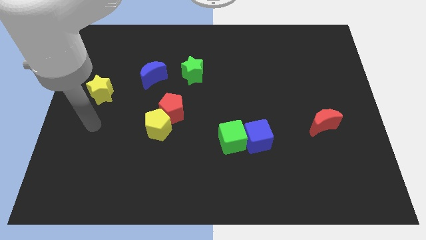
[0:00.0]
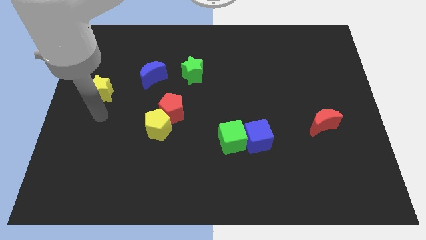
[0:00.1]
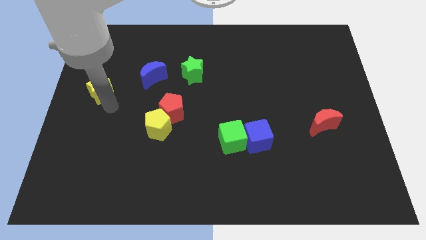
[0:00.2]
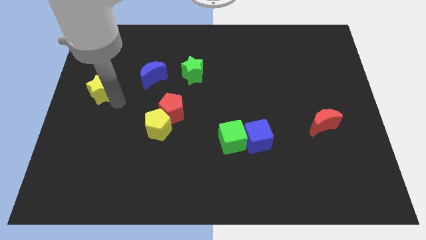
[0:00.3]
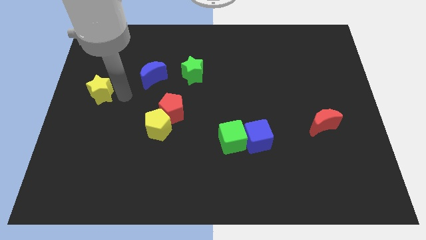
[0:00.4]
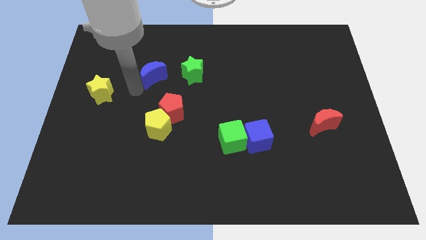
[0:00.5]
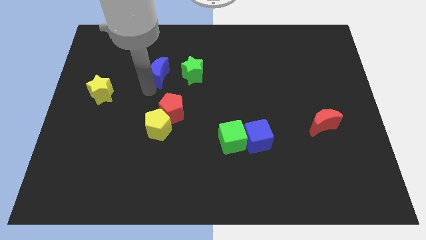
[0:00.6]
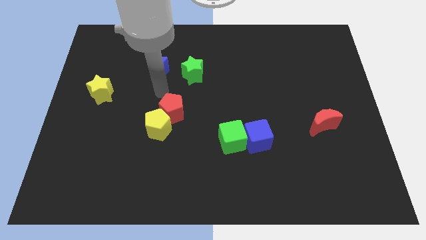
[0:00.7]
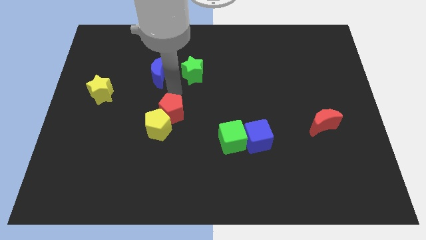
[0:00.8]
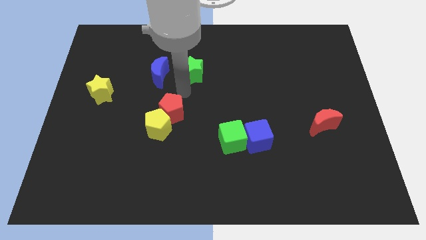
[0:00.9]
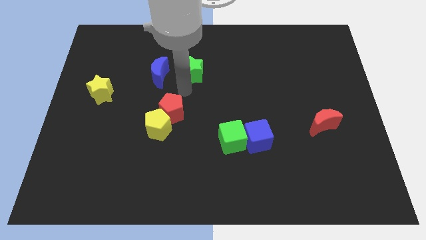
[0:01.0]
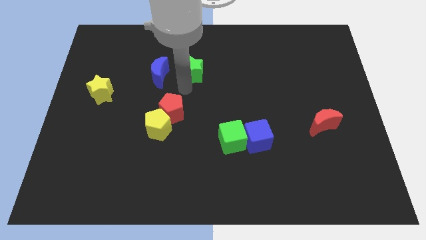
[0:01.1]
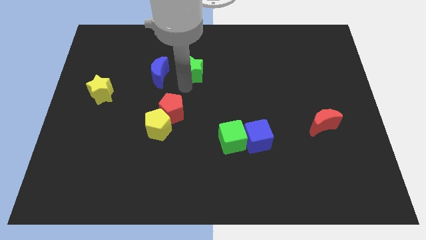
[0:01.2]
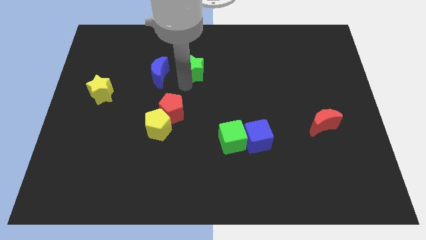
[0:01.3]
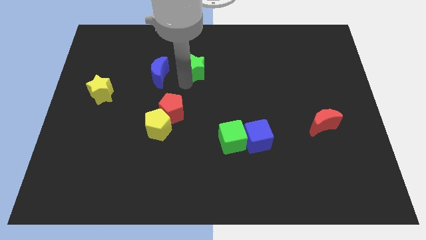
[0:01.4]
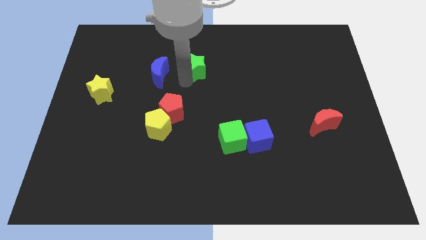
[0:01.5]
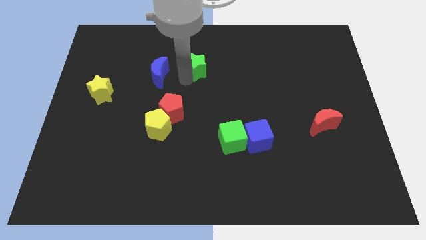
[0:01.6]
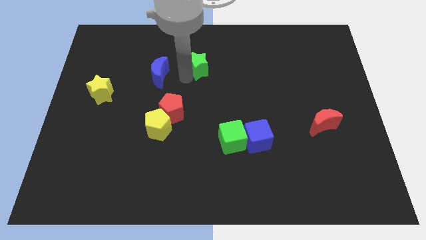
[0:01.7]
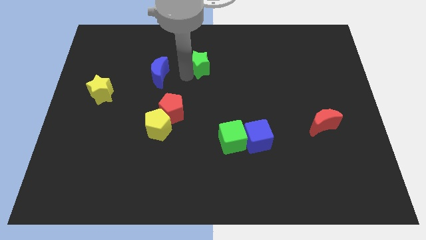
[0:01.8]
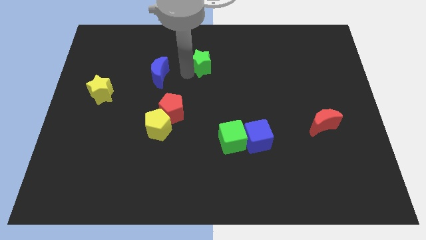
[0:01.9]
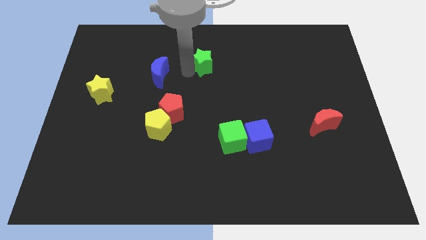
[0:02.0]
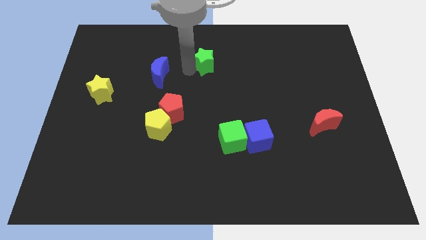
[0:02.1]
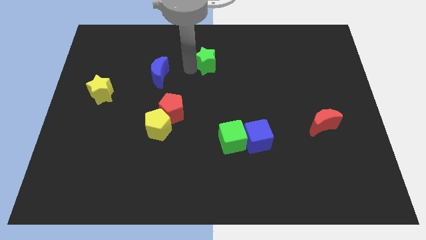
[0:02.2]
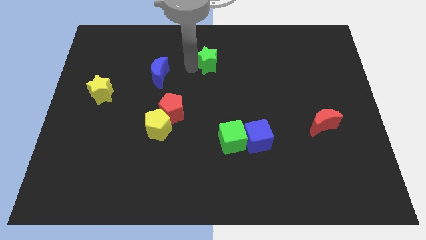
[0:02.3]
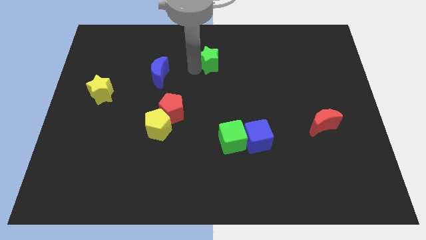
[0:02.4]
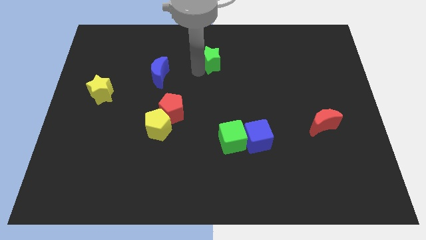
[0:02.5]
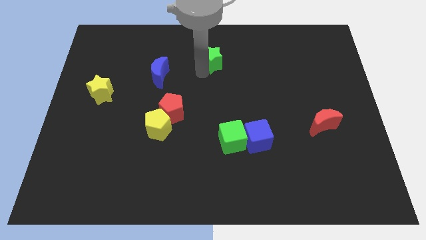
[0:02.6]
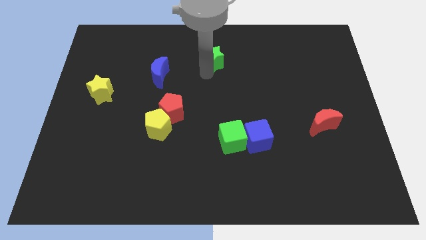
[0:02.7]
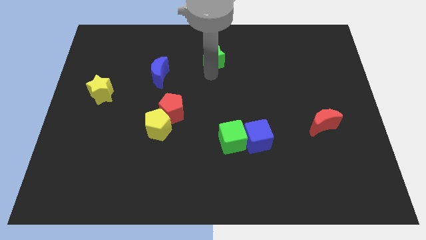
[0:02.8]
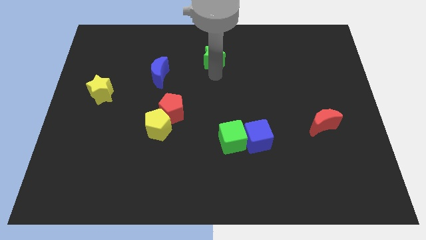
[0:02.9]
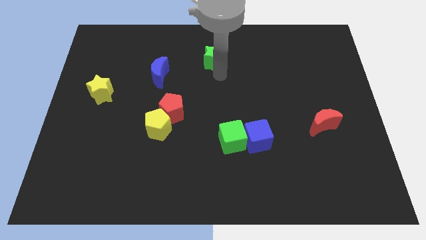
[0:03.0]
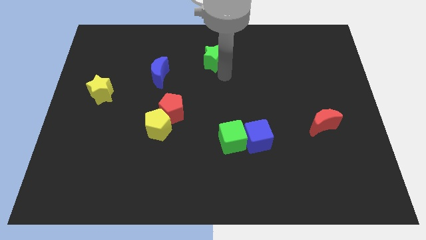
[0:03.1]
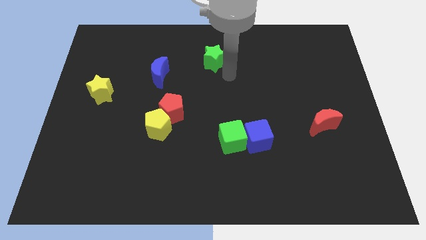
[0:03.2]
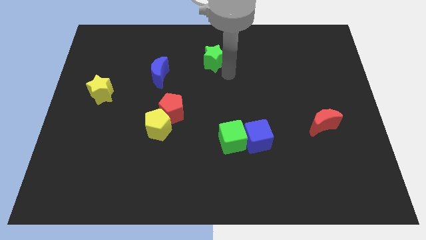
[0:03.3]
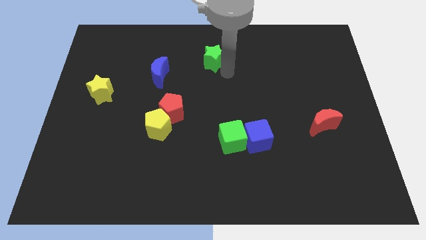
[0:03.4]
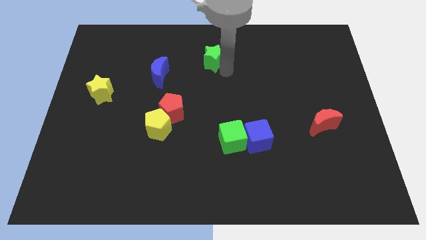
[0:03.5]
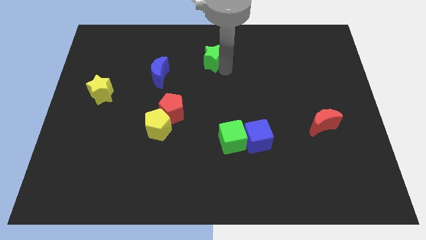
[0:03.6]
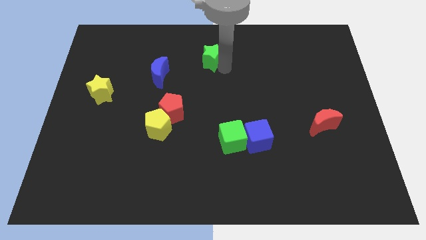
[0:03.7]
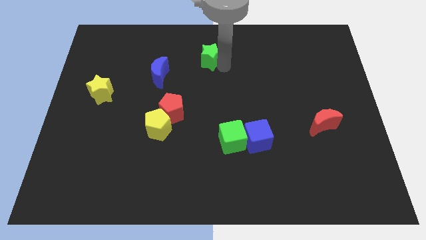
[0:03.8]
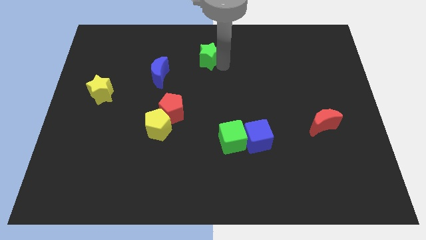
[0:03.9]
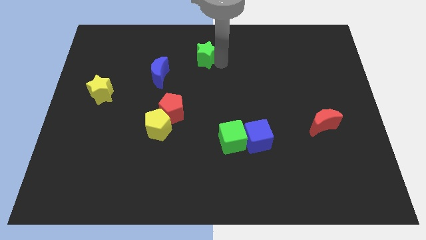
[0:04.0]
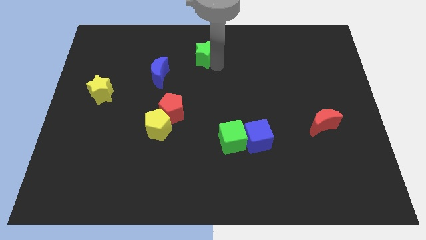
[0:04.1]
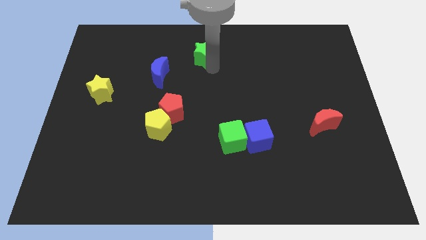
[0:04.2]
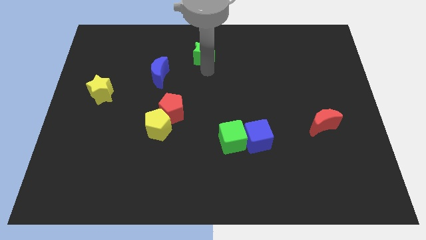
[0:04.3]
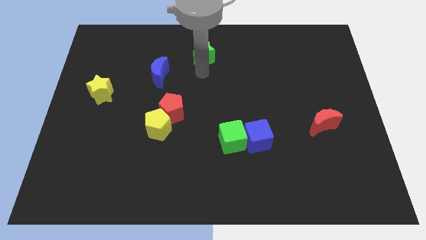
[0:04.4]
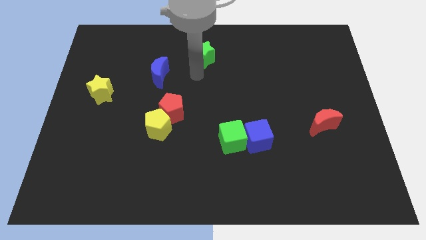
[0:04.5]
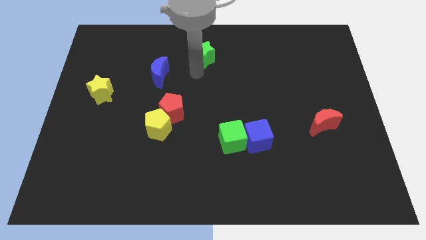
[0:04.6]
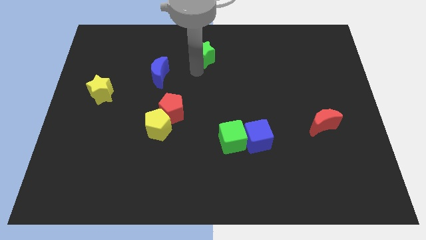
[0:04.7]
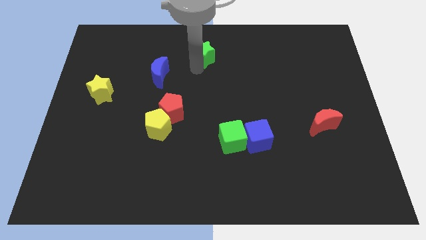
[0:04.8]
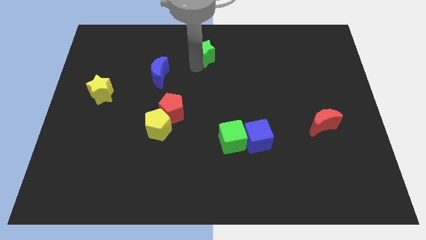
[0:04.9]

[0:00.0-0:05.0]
put the green star to the top side

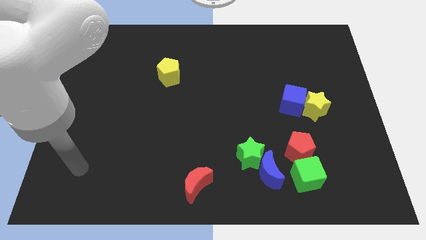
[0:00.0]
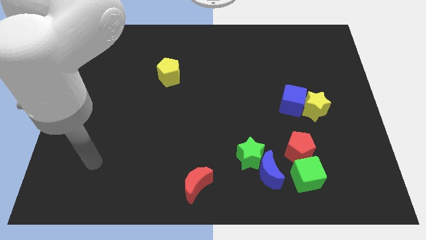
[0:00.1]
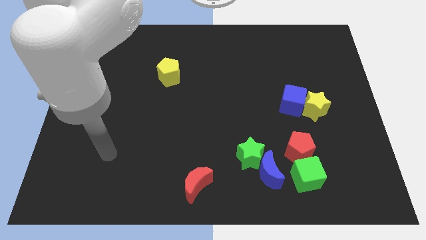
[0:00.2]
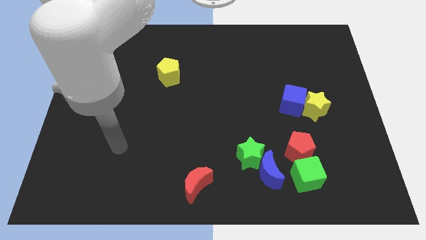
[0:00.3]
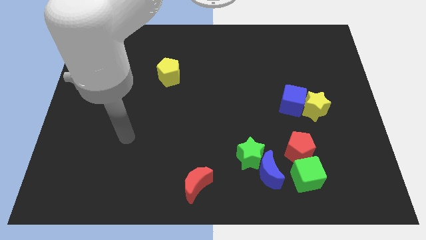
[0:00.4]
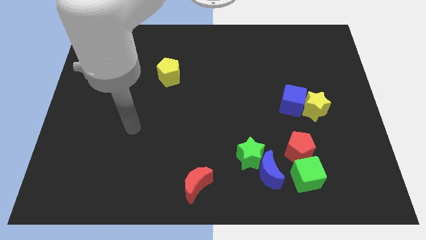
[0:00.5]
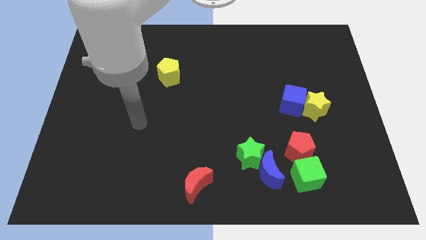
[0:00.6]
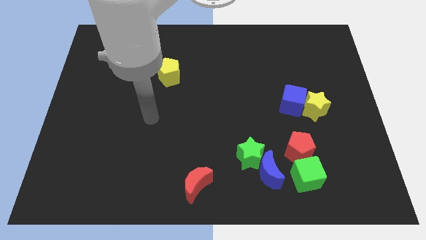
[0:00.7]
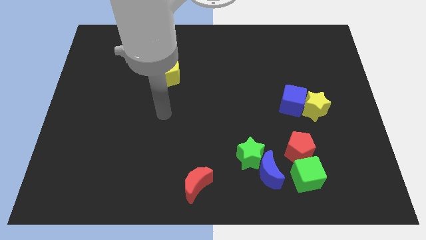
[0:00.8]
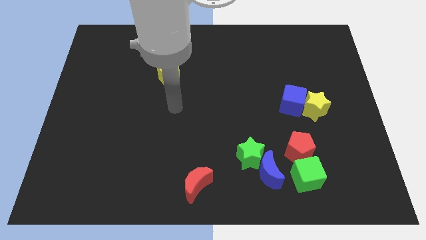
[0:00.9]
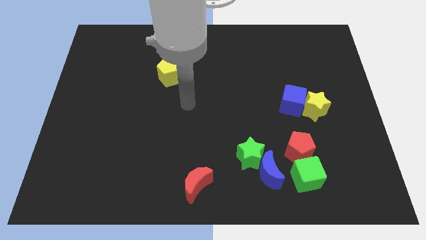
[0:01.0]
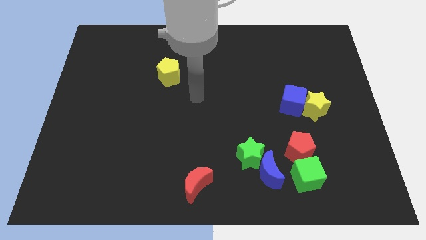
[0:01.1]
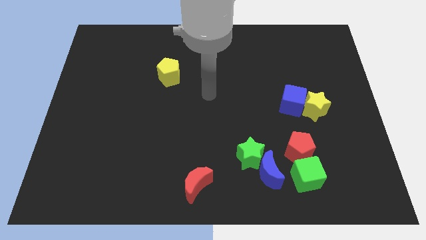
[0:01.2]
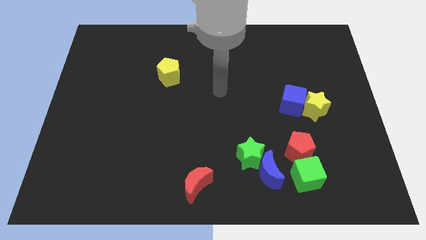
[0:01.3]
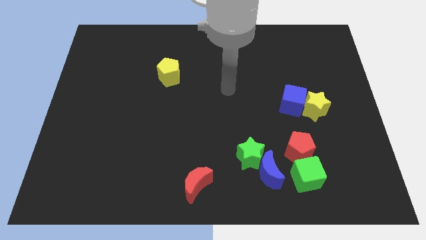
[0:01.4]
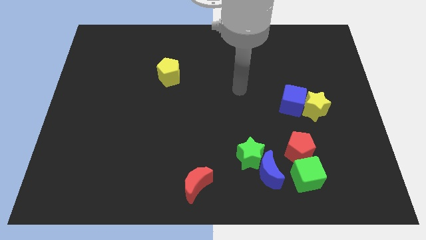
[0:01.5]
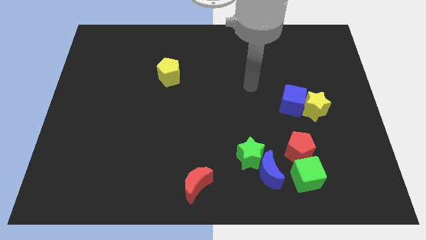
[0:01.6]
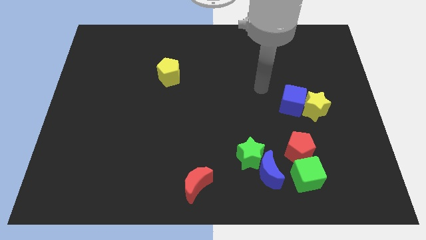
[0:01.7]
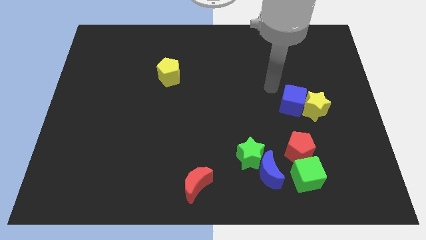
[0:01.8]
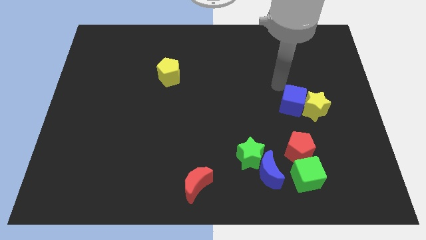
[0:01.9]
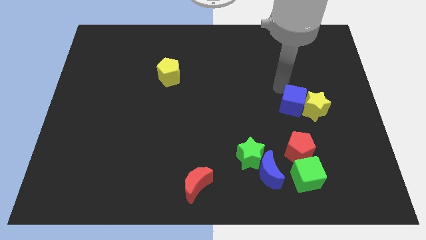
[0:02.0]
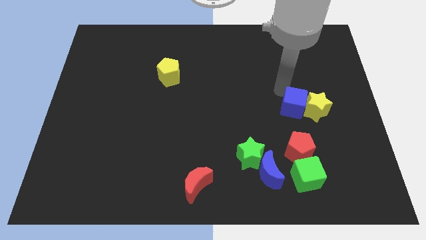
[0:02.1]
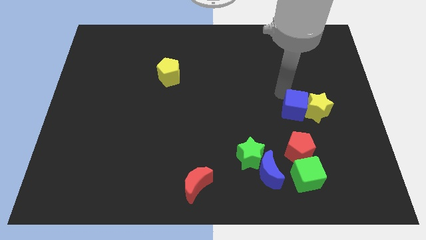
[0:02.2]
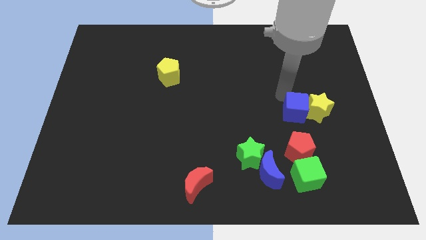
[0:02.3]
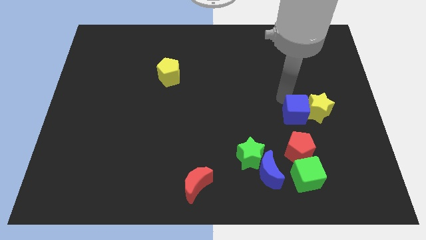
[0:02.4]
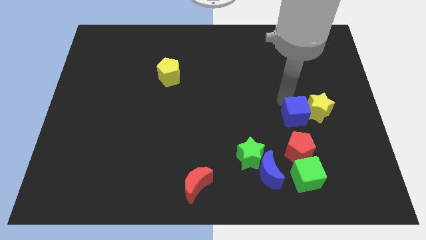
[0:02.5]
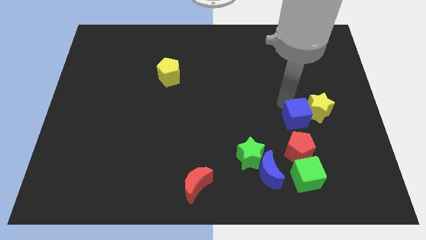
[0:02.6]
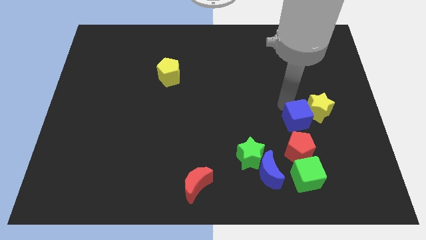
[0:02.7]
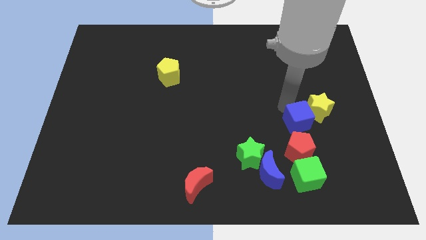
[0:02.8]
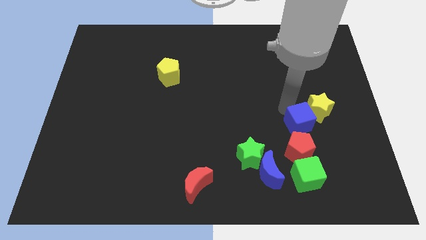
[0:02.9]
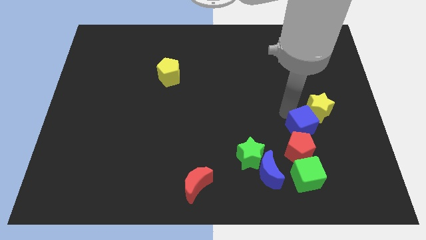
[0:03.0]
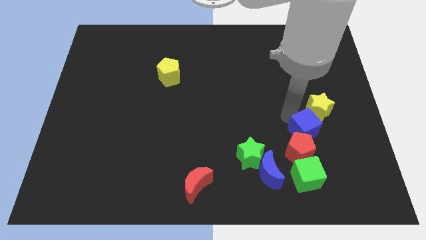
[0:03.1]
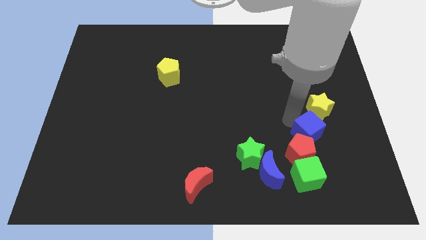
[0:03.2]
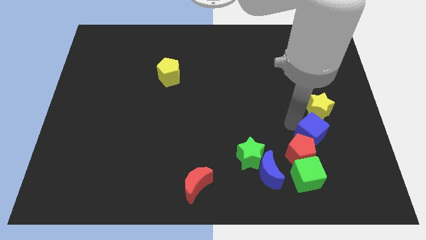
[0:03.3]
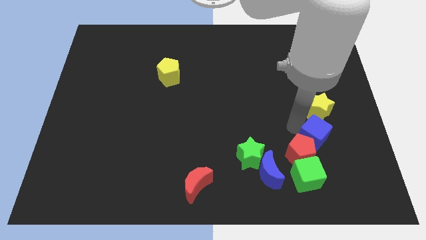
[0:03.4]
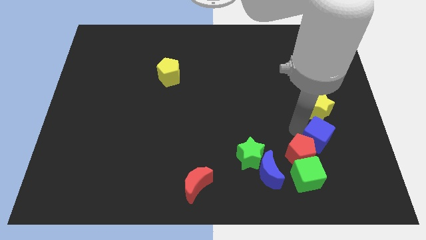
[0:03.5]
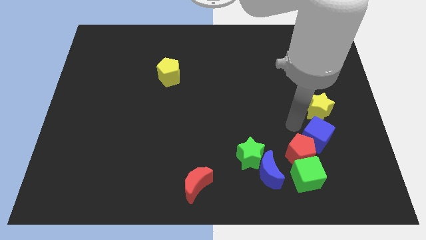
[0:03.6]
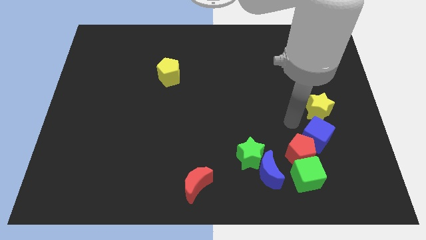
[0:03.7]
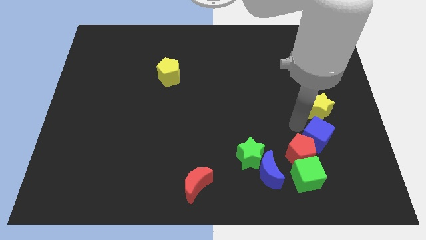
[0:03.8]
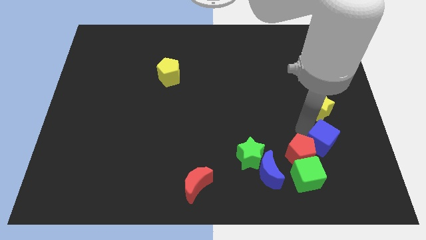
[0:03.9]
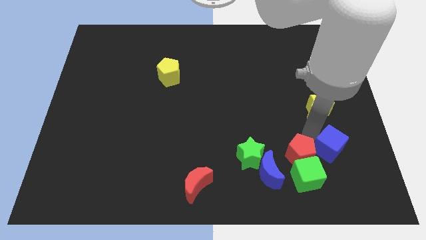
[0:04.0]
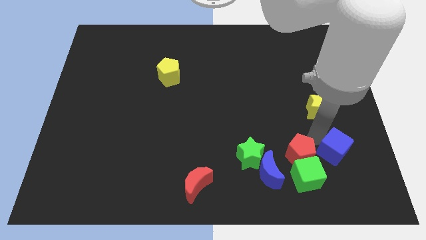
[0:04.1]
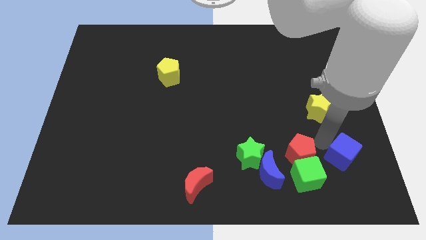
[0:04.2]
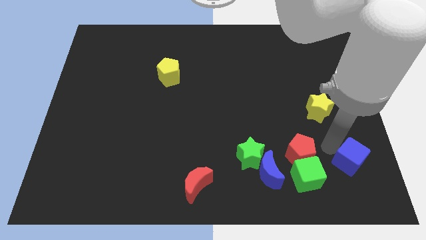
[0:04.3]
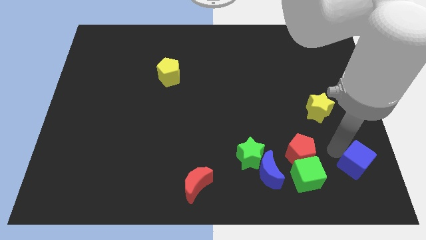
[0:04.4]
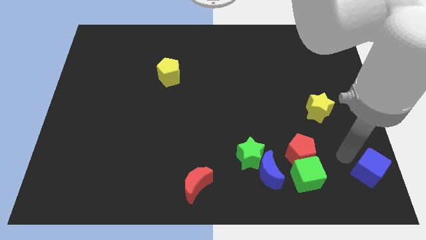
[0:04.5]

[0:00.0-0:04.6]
move the blue cube to the bottom right
